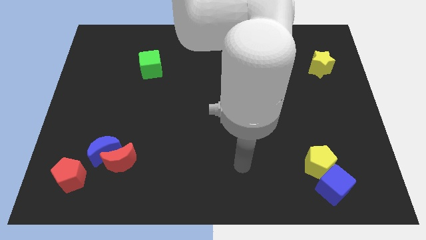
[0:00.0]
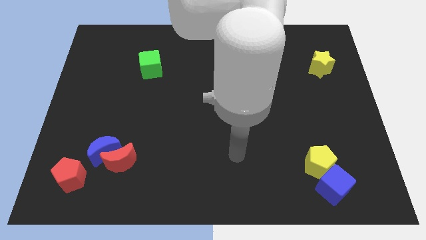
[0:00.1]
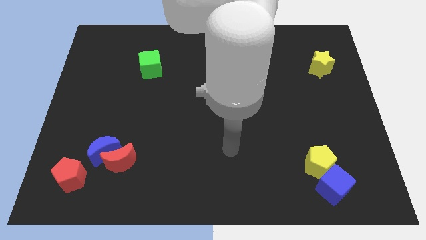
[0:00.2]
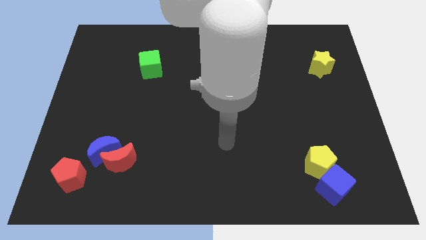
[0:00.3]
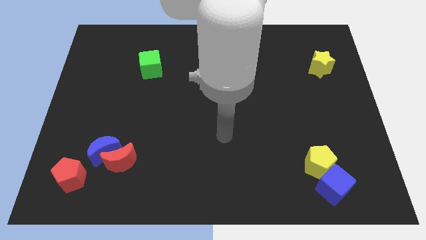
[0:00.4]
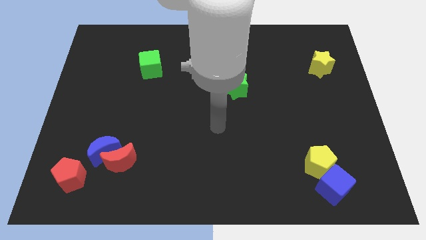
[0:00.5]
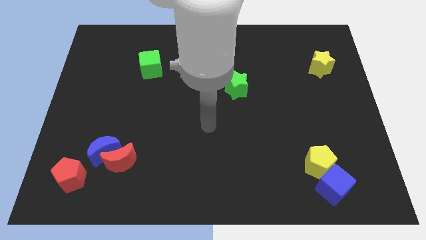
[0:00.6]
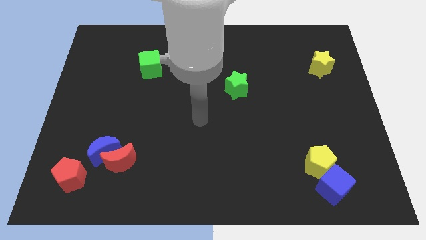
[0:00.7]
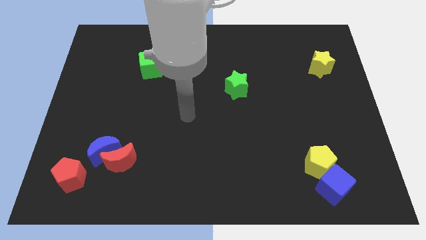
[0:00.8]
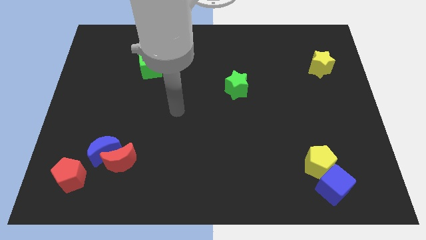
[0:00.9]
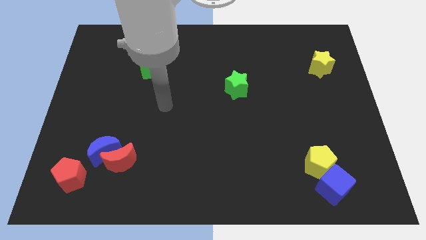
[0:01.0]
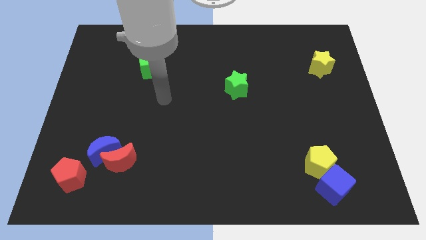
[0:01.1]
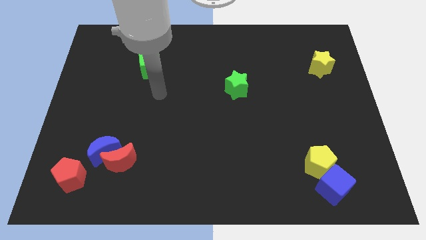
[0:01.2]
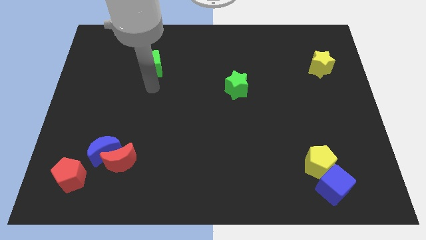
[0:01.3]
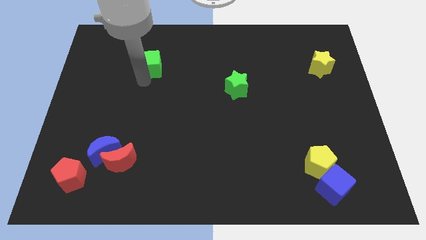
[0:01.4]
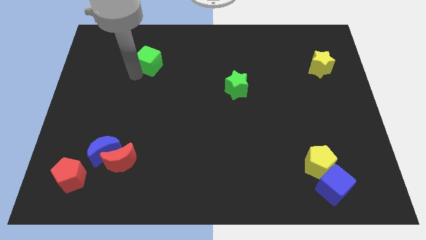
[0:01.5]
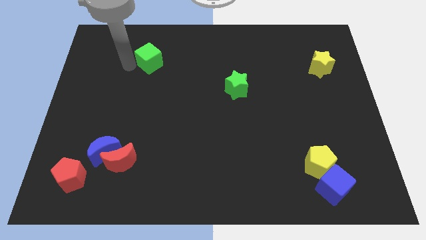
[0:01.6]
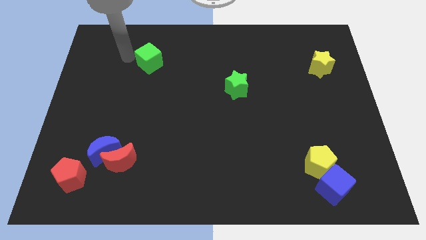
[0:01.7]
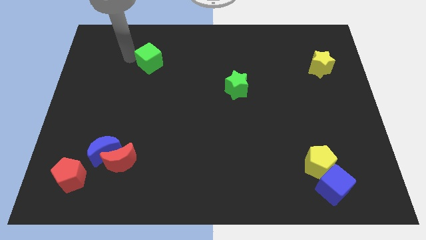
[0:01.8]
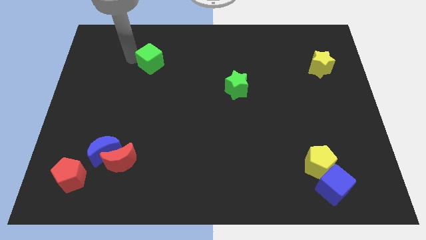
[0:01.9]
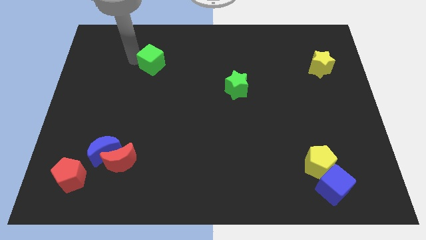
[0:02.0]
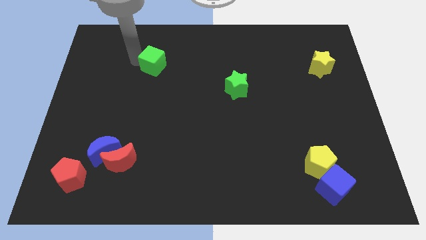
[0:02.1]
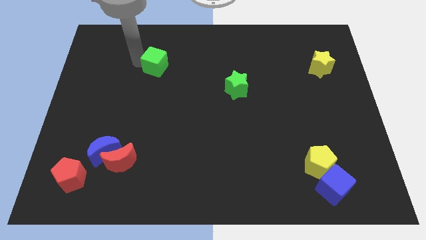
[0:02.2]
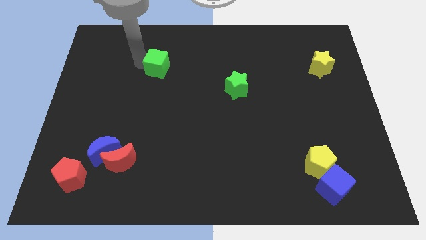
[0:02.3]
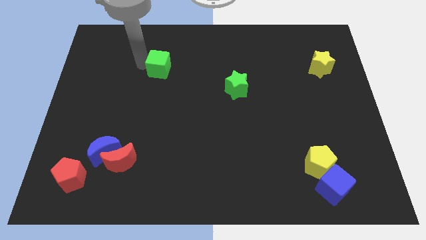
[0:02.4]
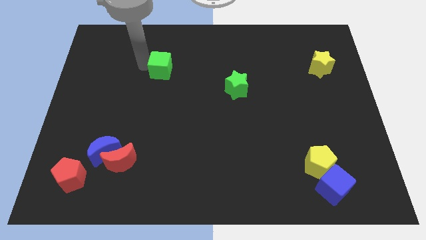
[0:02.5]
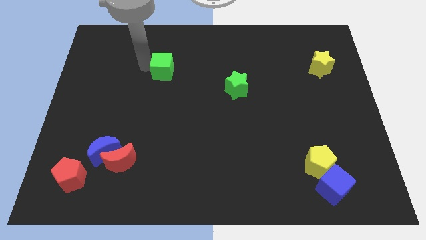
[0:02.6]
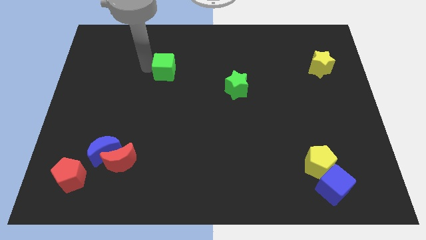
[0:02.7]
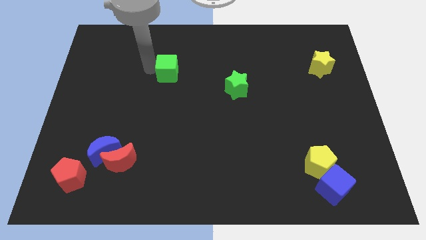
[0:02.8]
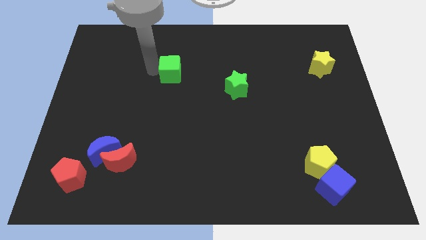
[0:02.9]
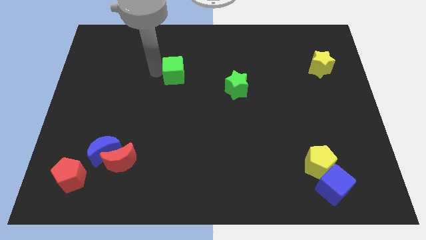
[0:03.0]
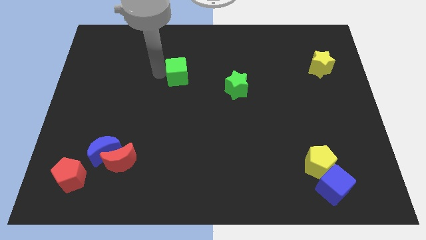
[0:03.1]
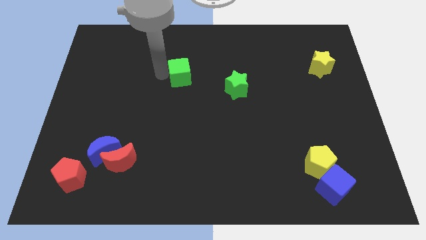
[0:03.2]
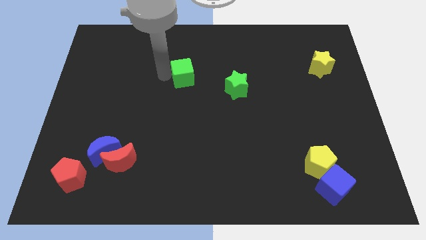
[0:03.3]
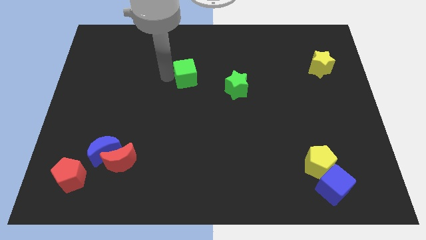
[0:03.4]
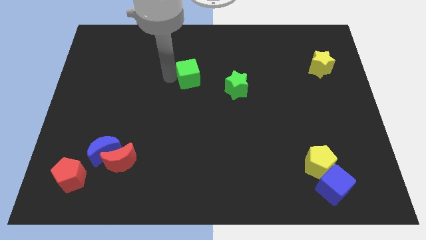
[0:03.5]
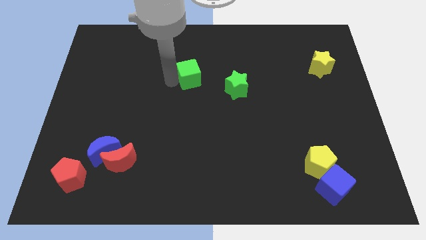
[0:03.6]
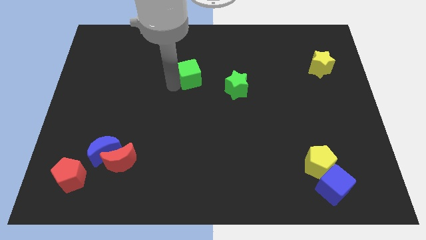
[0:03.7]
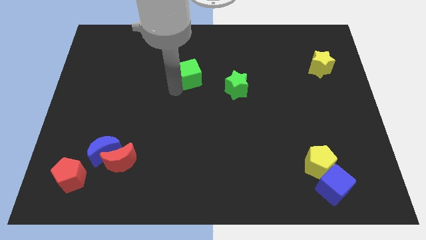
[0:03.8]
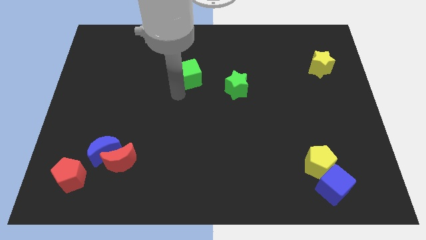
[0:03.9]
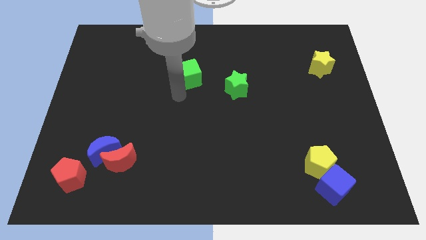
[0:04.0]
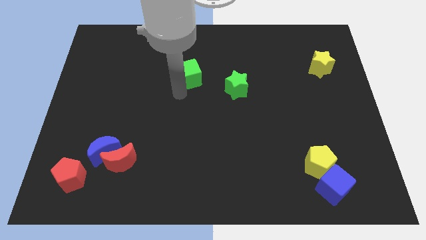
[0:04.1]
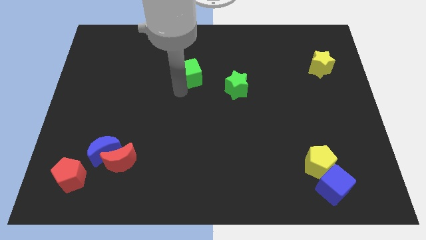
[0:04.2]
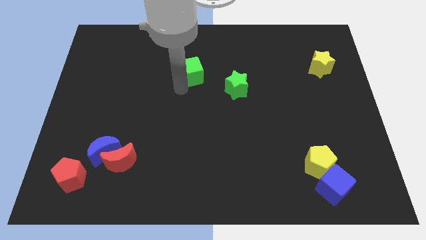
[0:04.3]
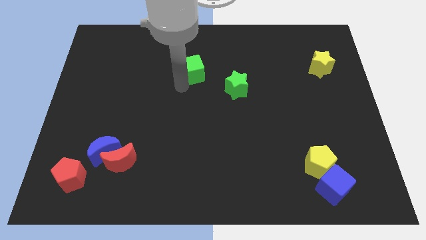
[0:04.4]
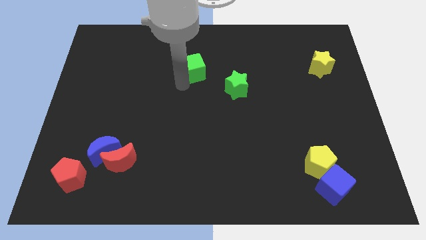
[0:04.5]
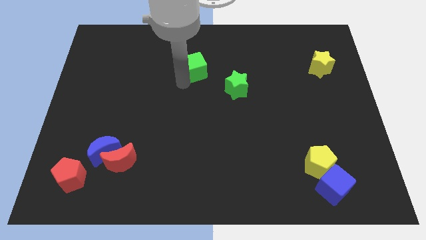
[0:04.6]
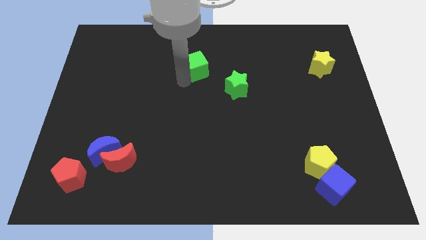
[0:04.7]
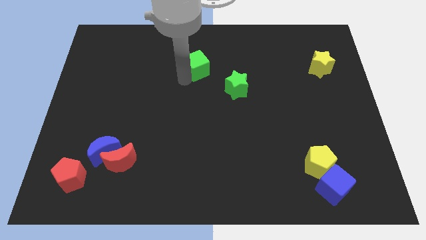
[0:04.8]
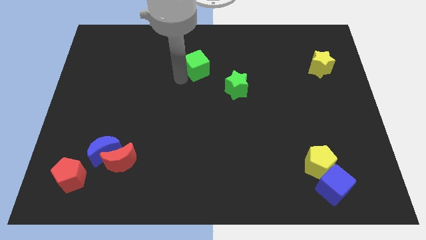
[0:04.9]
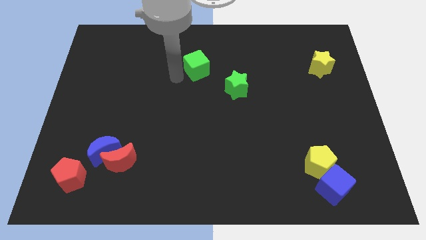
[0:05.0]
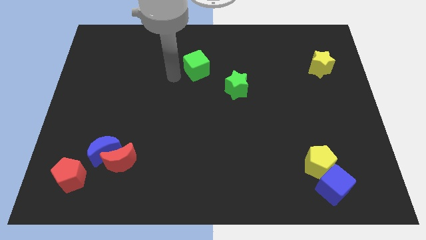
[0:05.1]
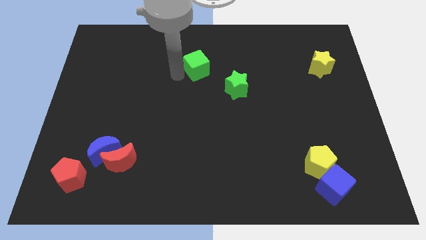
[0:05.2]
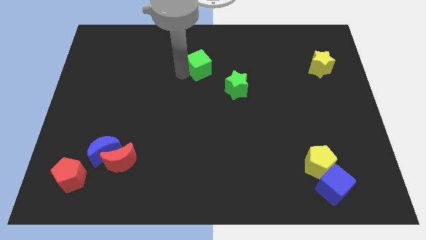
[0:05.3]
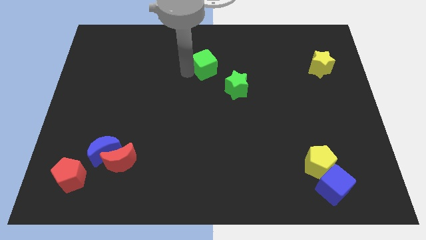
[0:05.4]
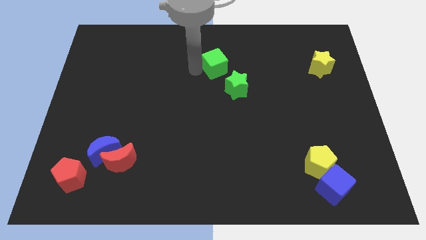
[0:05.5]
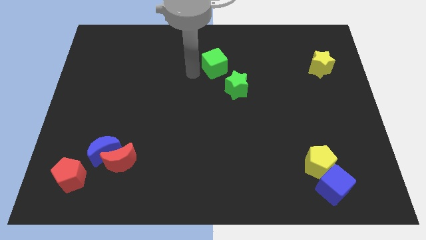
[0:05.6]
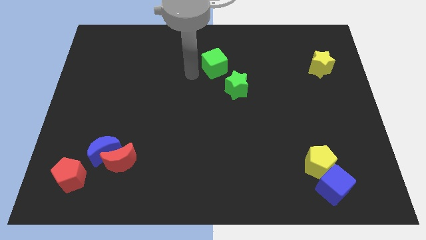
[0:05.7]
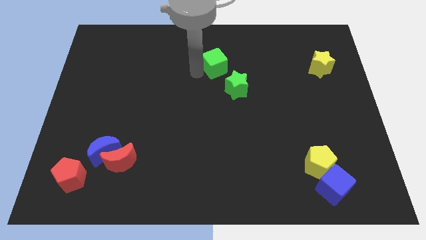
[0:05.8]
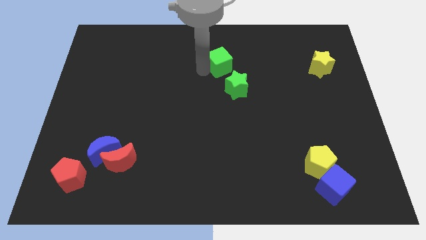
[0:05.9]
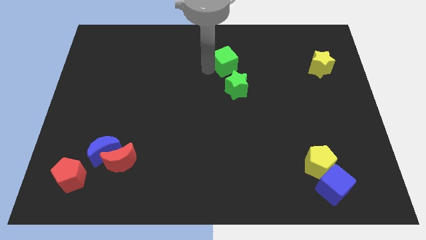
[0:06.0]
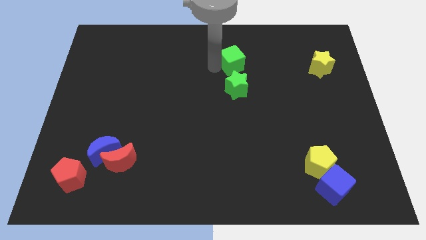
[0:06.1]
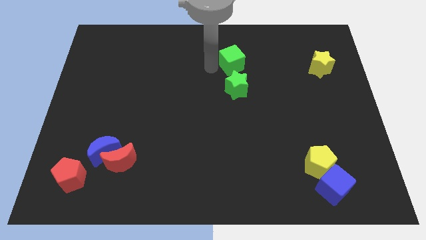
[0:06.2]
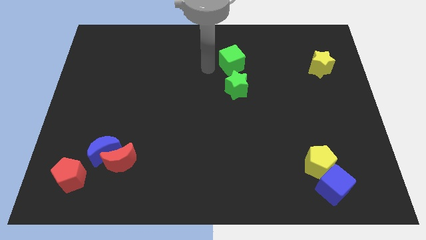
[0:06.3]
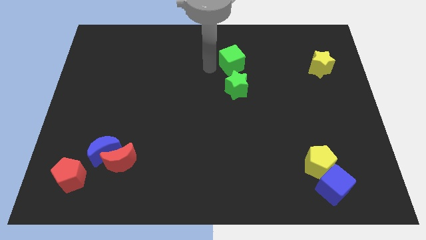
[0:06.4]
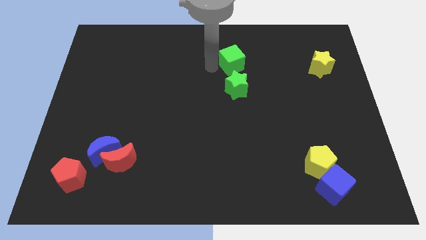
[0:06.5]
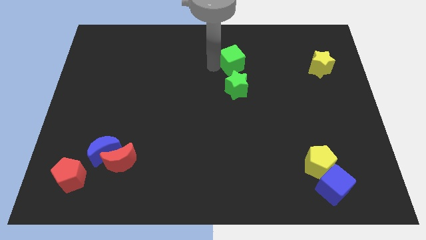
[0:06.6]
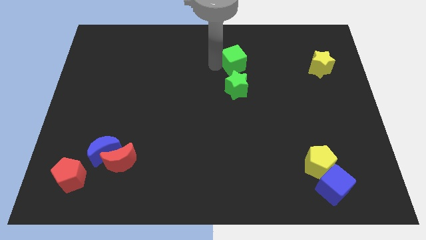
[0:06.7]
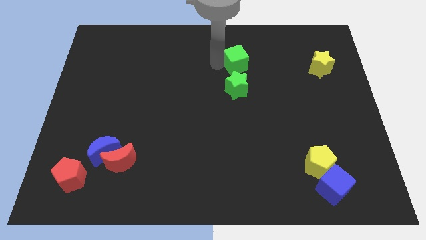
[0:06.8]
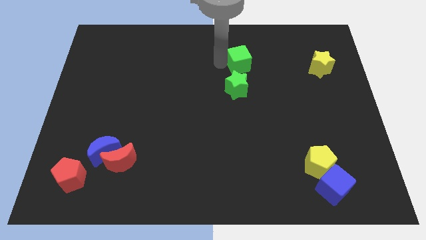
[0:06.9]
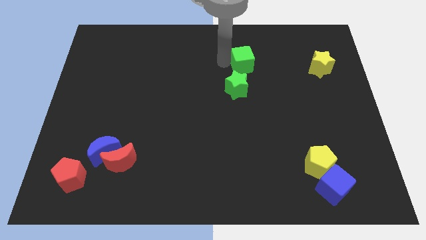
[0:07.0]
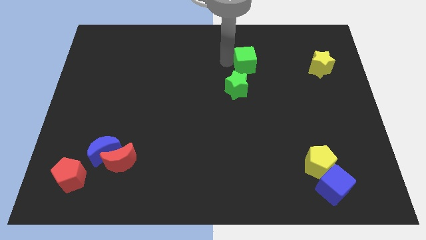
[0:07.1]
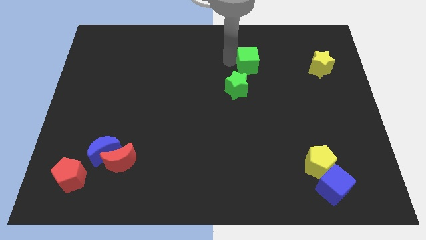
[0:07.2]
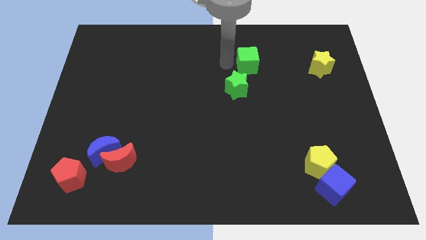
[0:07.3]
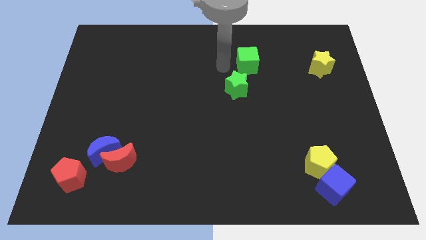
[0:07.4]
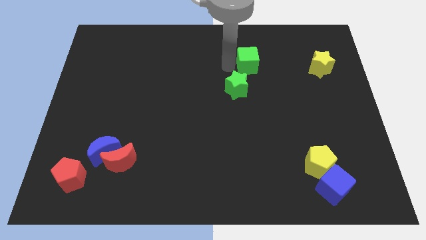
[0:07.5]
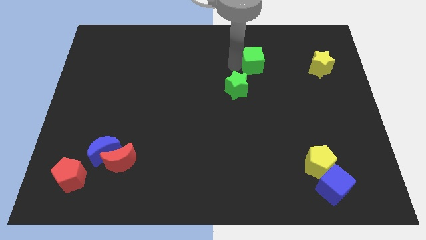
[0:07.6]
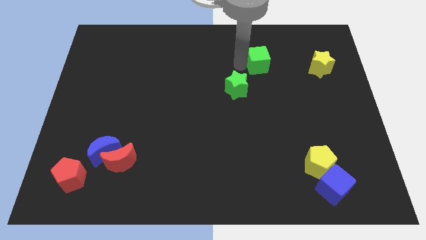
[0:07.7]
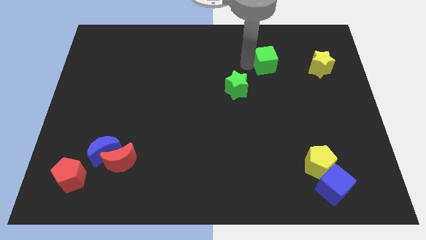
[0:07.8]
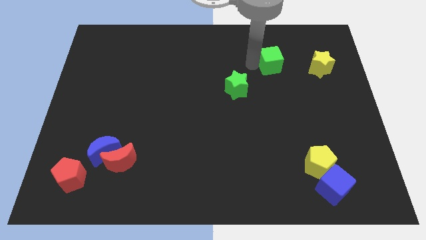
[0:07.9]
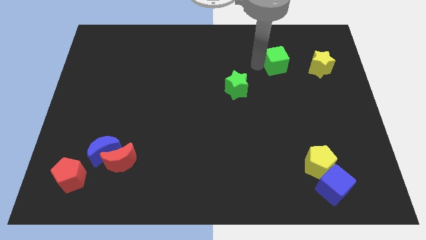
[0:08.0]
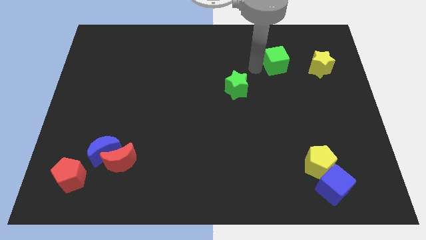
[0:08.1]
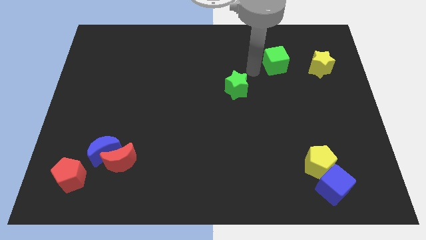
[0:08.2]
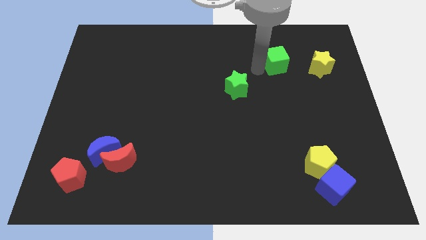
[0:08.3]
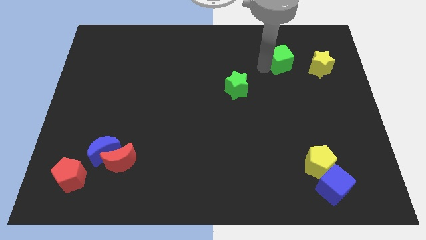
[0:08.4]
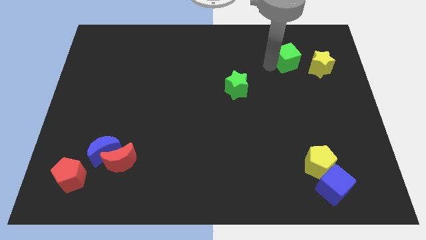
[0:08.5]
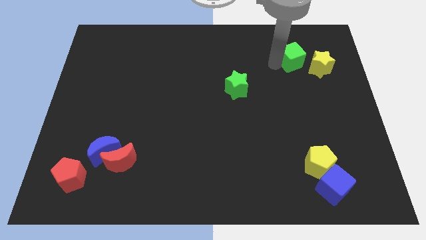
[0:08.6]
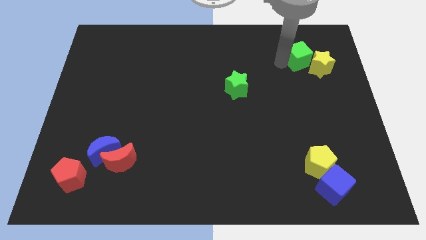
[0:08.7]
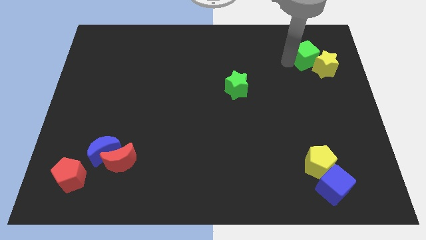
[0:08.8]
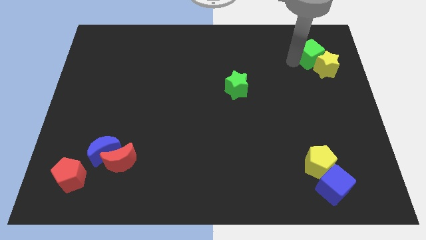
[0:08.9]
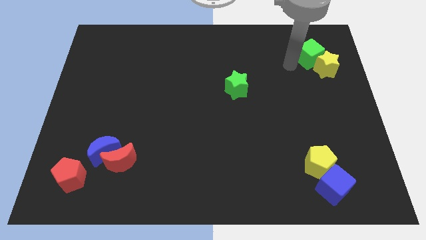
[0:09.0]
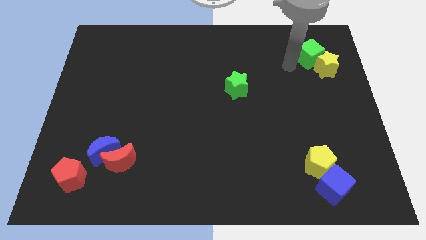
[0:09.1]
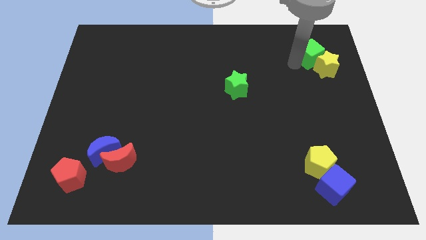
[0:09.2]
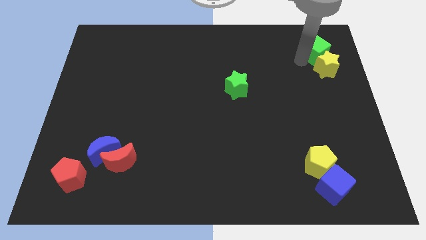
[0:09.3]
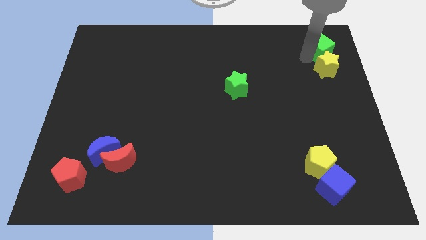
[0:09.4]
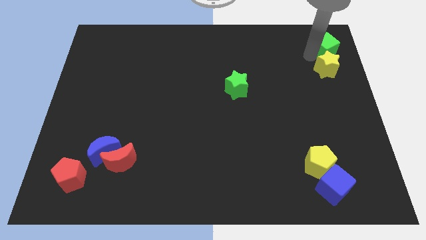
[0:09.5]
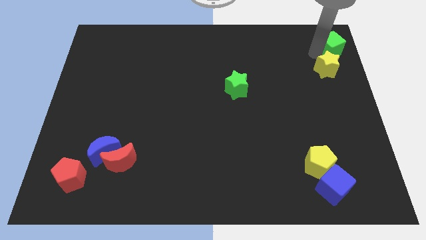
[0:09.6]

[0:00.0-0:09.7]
put the green cube to the top right corner
